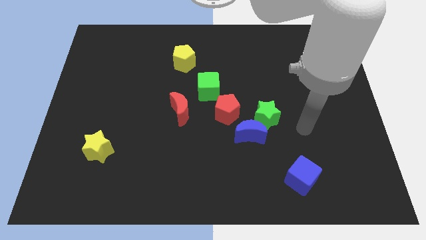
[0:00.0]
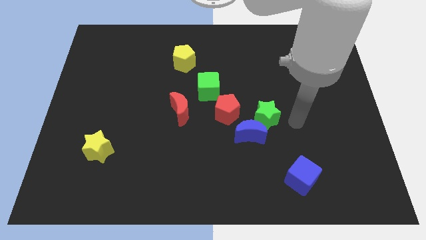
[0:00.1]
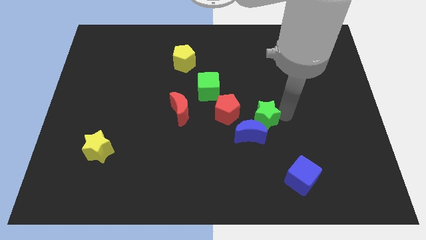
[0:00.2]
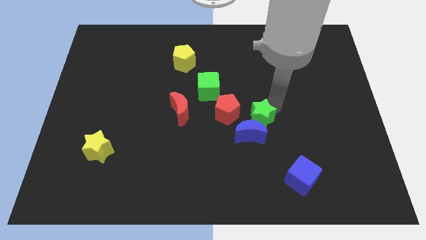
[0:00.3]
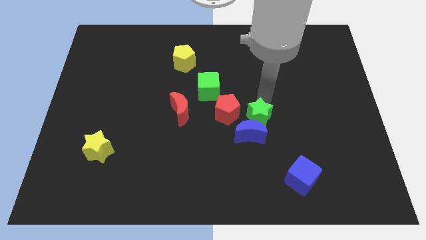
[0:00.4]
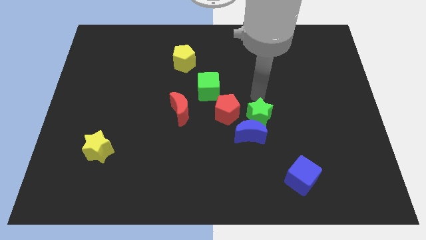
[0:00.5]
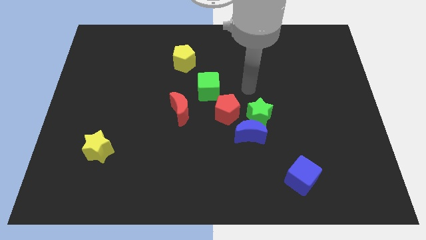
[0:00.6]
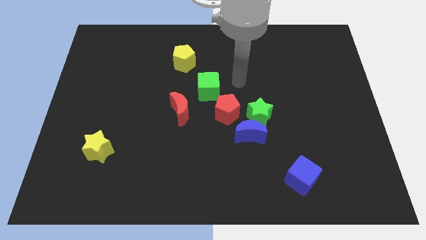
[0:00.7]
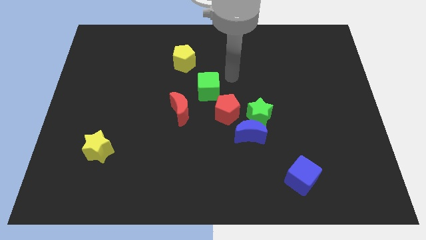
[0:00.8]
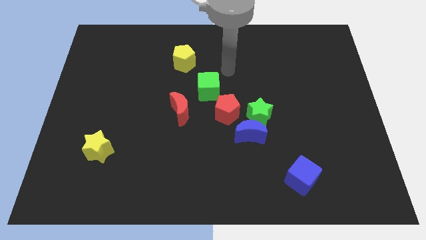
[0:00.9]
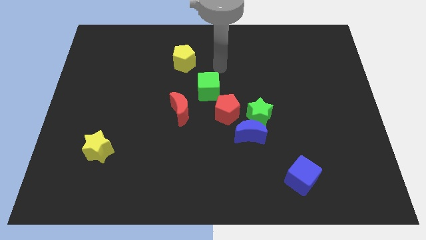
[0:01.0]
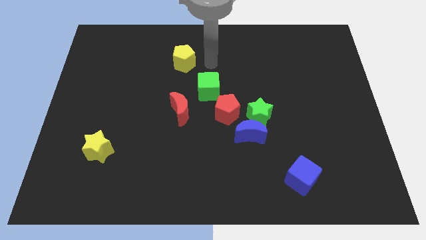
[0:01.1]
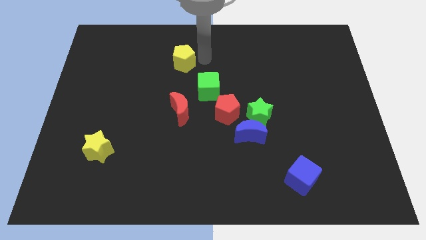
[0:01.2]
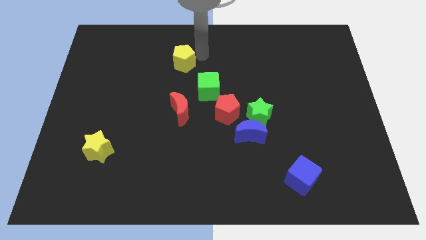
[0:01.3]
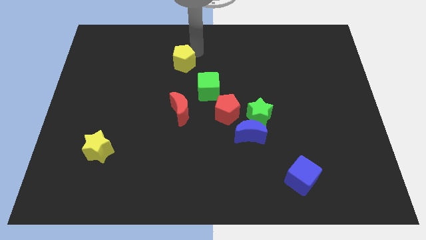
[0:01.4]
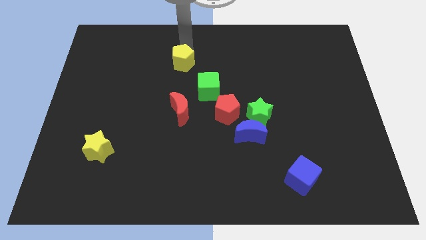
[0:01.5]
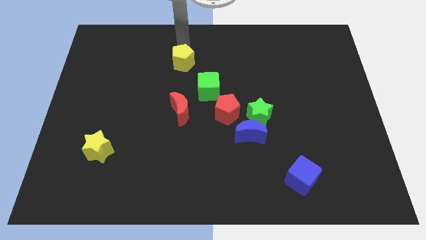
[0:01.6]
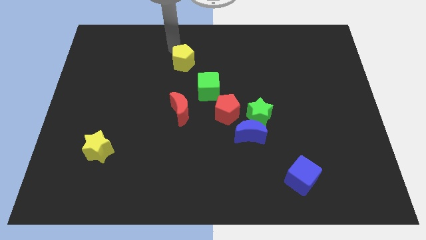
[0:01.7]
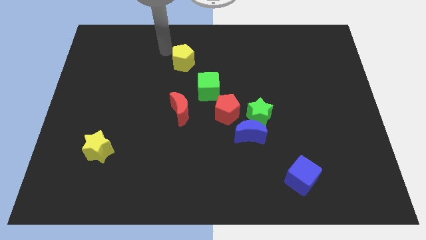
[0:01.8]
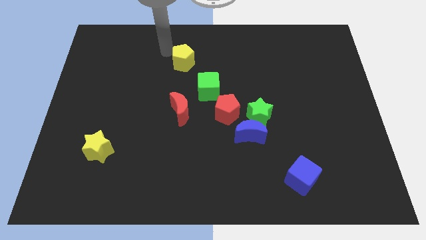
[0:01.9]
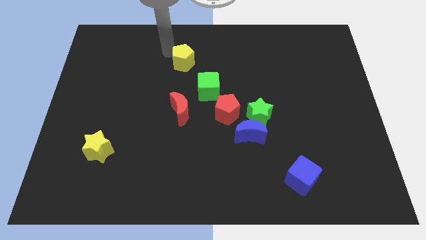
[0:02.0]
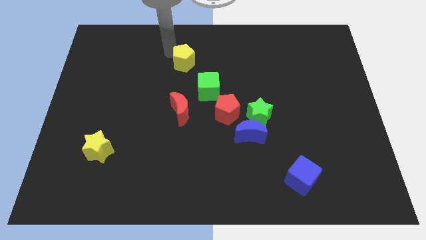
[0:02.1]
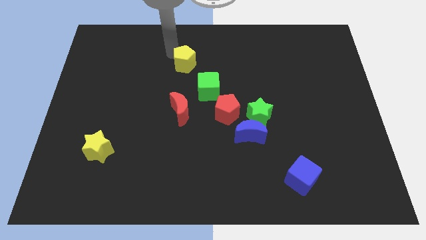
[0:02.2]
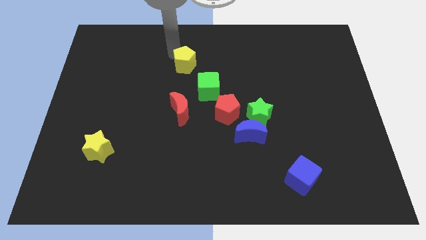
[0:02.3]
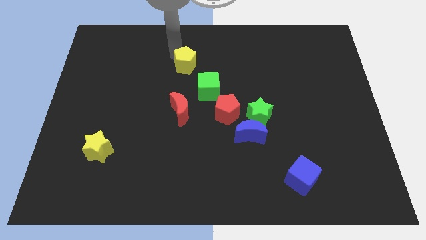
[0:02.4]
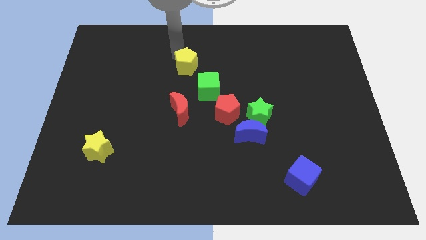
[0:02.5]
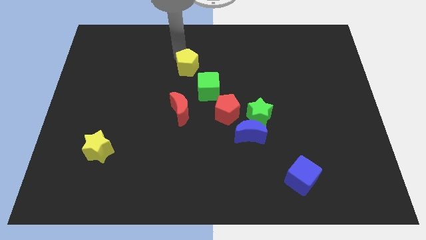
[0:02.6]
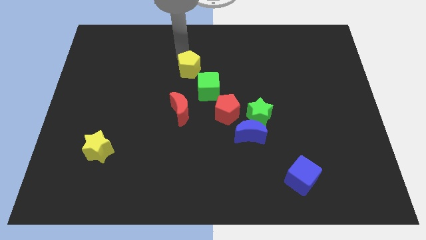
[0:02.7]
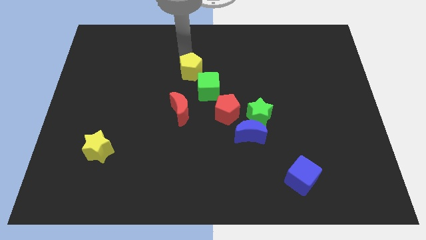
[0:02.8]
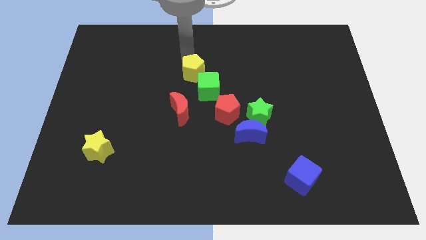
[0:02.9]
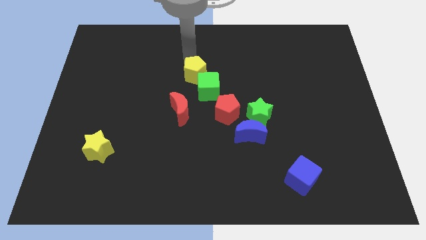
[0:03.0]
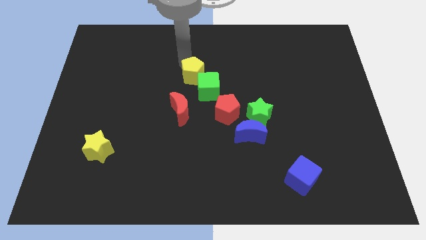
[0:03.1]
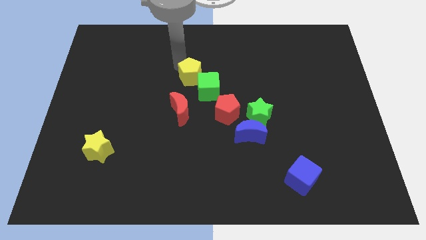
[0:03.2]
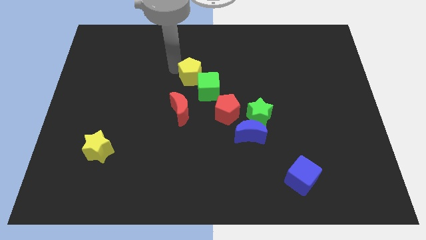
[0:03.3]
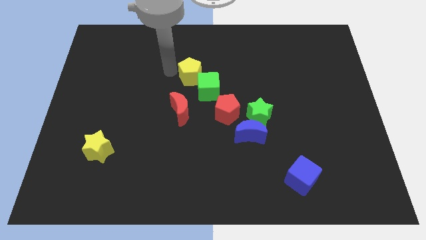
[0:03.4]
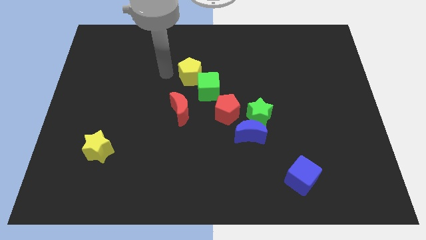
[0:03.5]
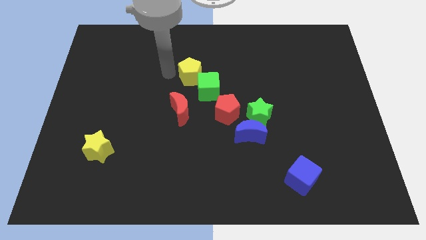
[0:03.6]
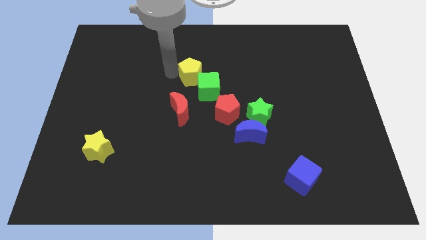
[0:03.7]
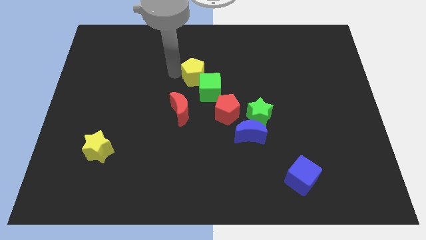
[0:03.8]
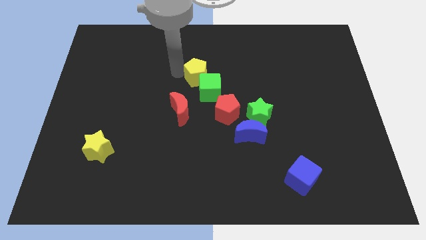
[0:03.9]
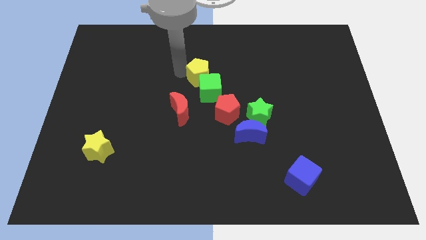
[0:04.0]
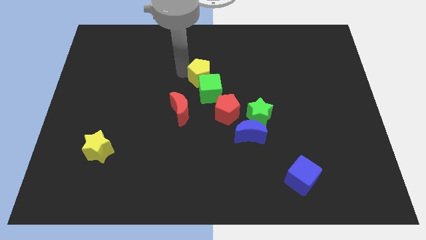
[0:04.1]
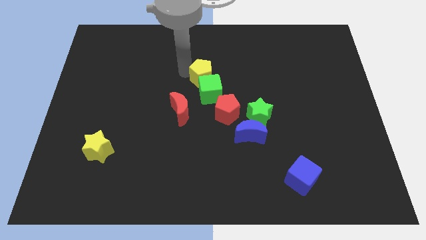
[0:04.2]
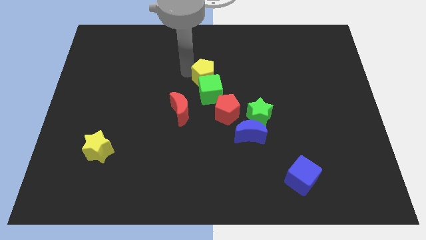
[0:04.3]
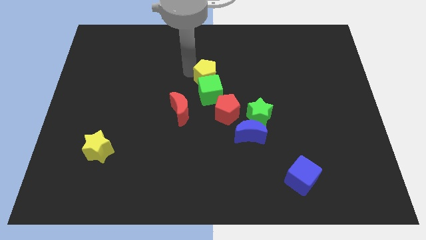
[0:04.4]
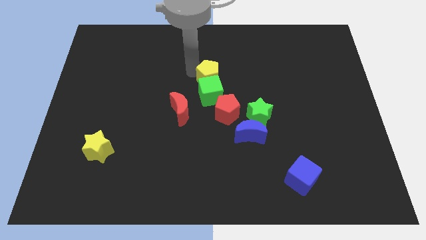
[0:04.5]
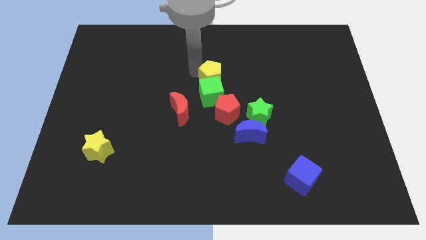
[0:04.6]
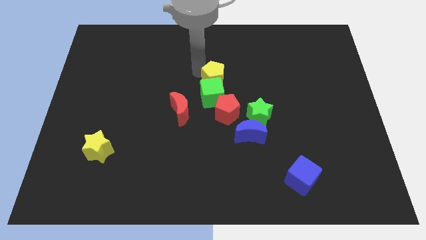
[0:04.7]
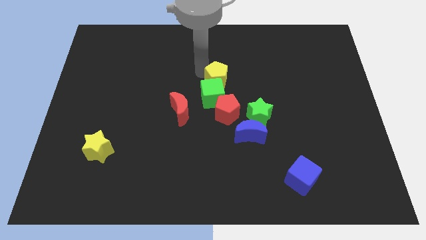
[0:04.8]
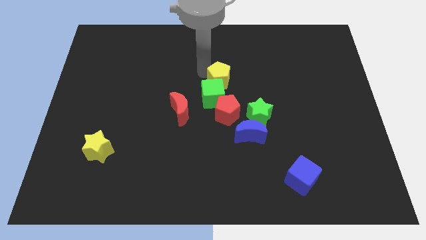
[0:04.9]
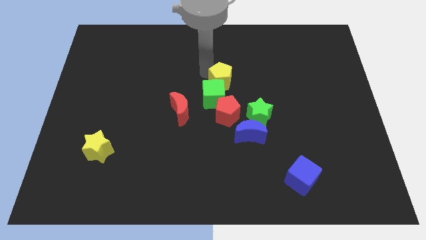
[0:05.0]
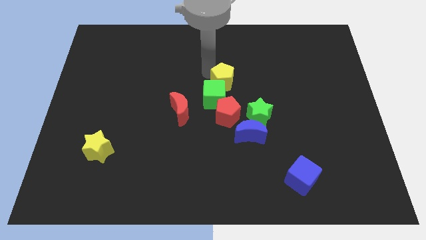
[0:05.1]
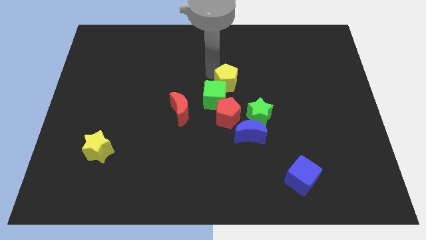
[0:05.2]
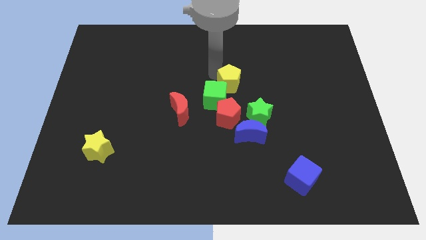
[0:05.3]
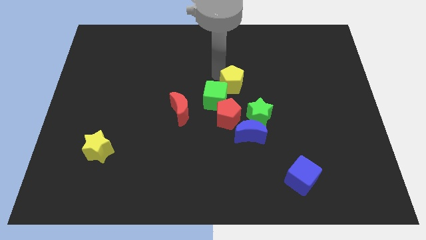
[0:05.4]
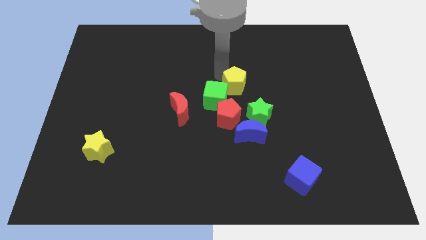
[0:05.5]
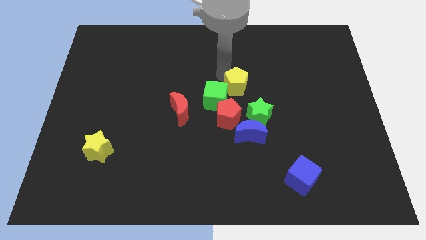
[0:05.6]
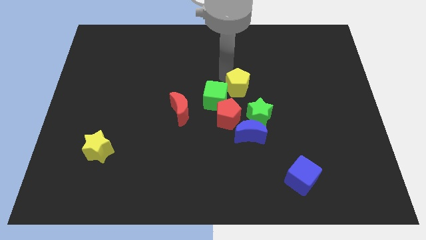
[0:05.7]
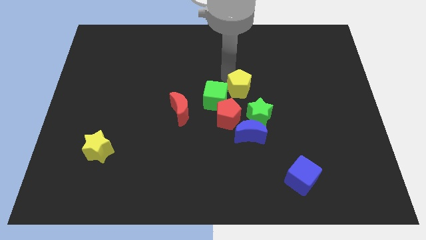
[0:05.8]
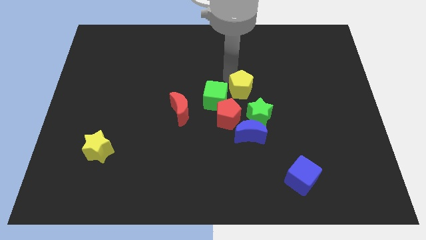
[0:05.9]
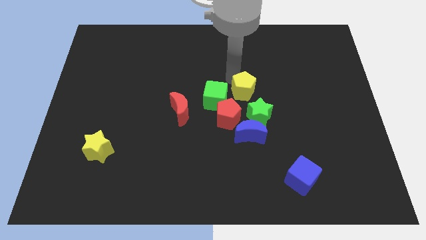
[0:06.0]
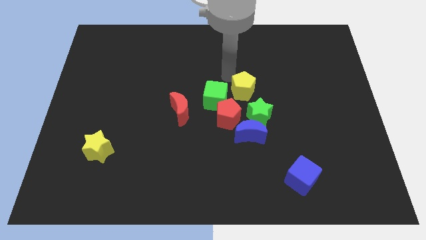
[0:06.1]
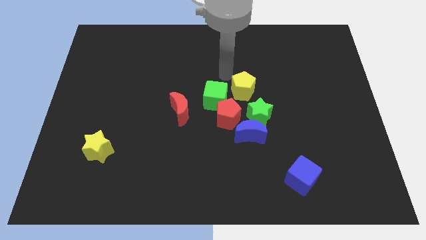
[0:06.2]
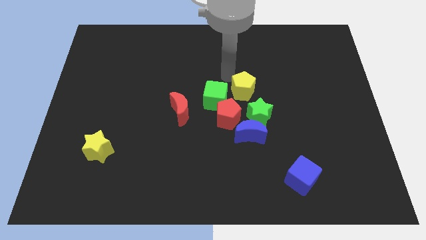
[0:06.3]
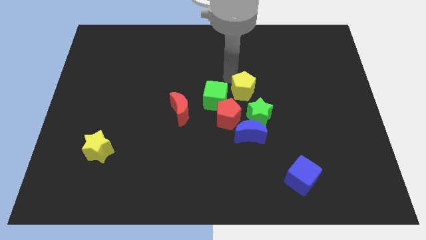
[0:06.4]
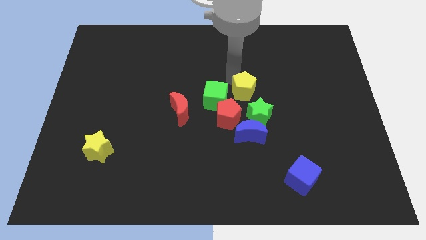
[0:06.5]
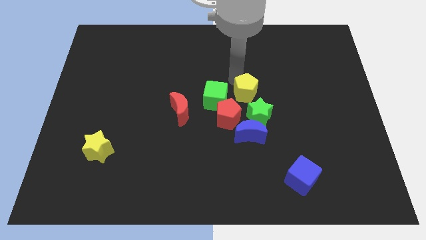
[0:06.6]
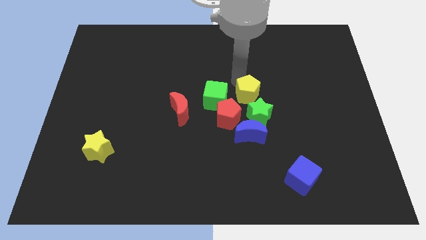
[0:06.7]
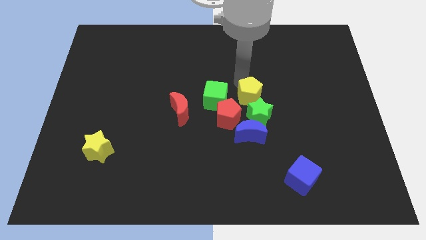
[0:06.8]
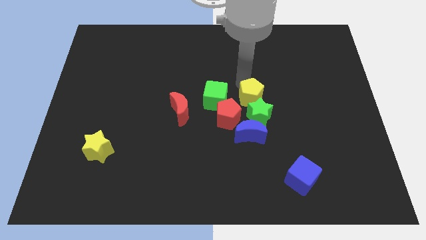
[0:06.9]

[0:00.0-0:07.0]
move the yellow pentagon towards the green star

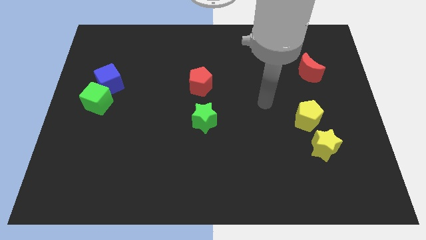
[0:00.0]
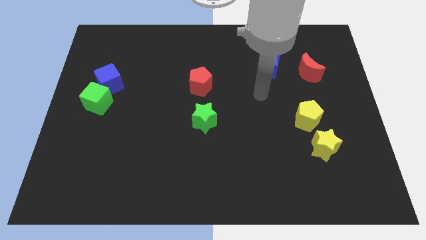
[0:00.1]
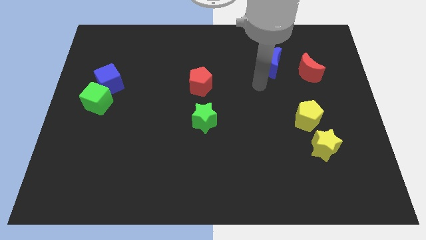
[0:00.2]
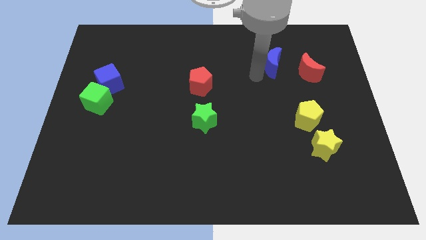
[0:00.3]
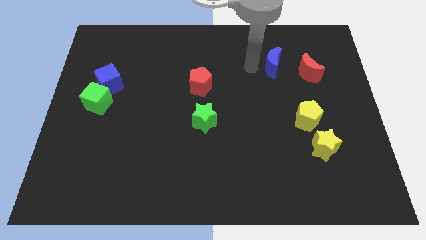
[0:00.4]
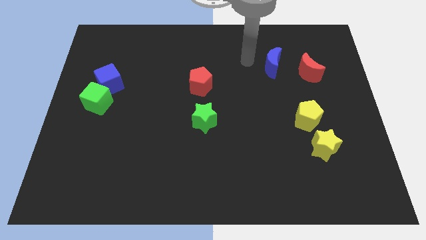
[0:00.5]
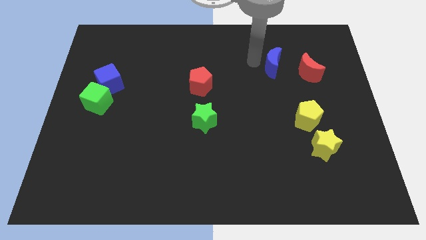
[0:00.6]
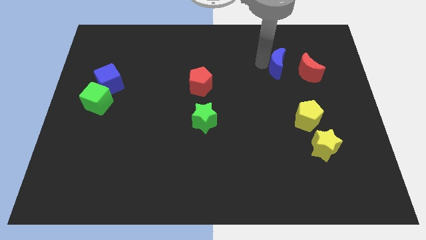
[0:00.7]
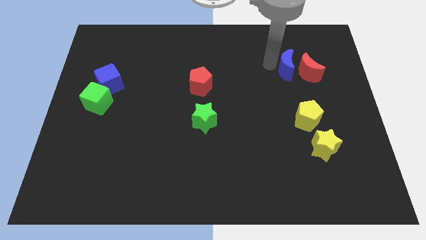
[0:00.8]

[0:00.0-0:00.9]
slide the blue moon to the red moon
